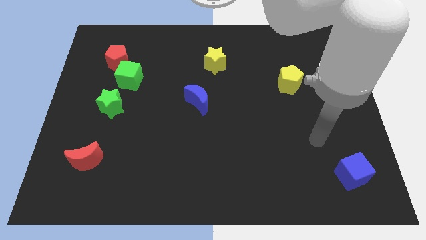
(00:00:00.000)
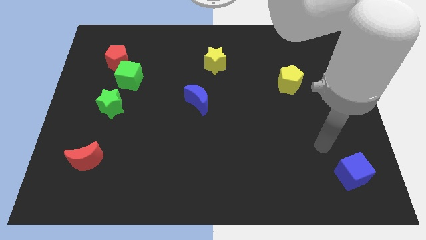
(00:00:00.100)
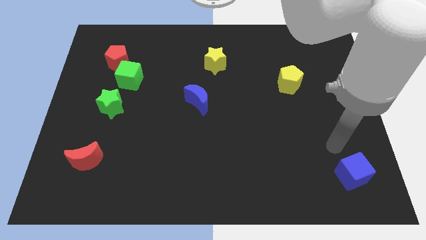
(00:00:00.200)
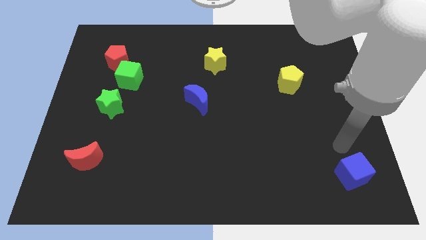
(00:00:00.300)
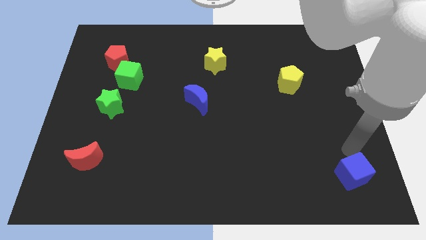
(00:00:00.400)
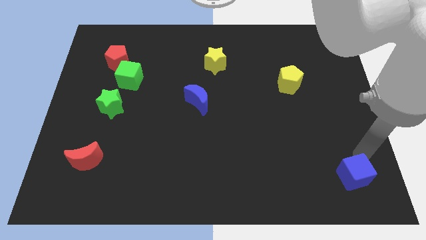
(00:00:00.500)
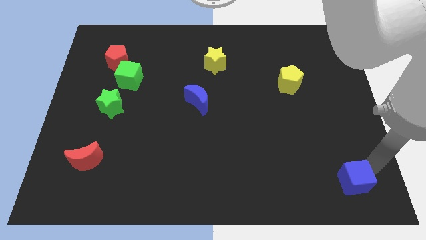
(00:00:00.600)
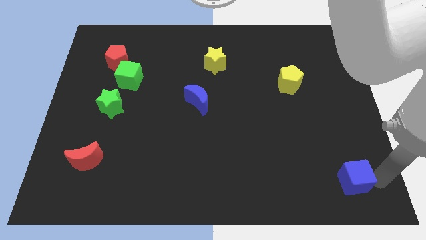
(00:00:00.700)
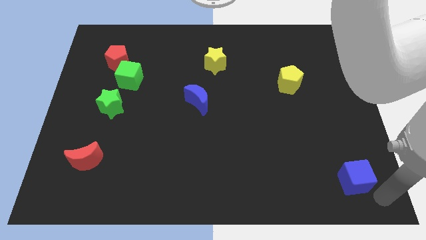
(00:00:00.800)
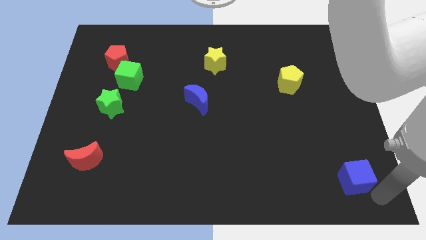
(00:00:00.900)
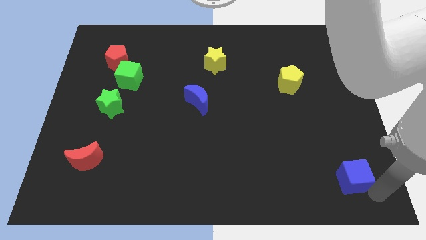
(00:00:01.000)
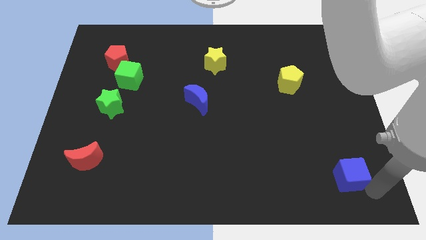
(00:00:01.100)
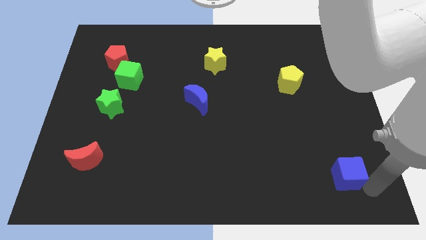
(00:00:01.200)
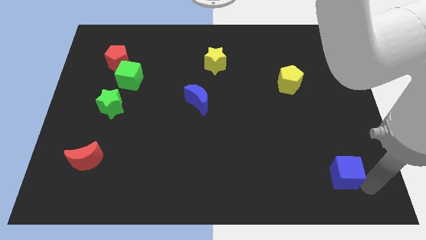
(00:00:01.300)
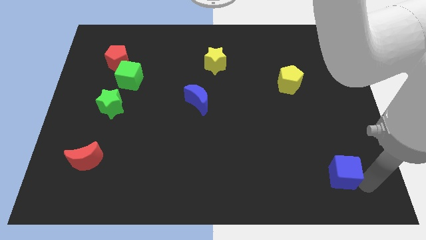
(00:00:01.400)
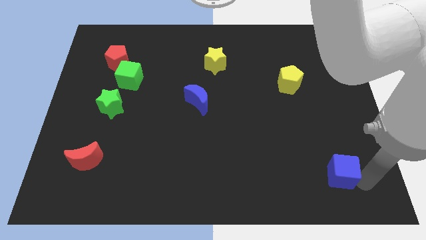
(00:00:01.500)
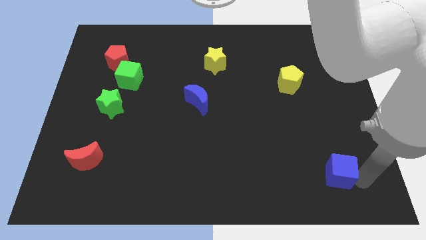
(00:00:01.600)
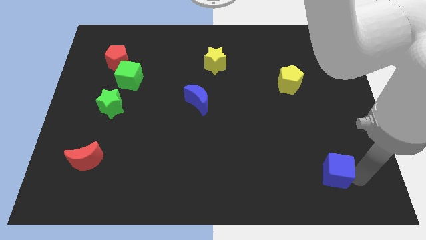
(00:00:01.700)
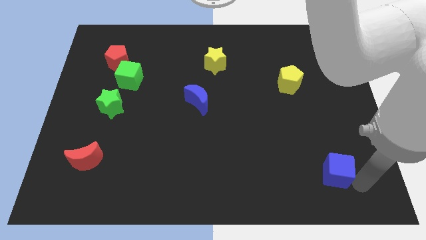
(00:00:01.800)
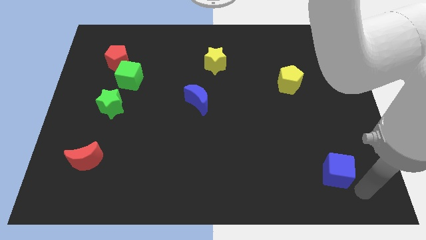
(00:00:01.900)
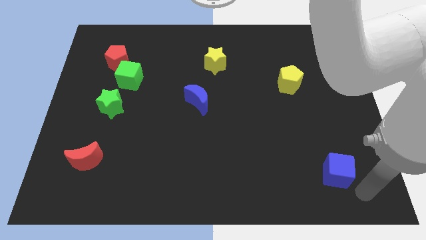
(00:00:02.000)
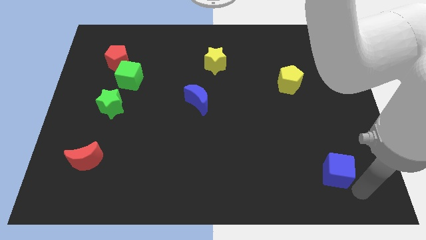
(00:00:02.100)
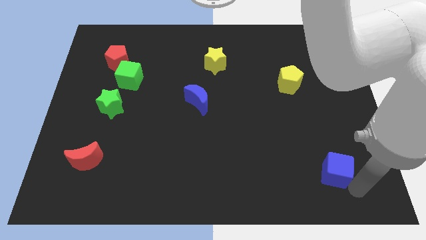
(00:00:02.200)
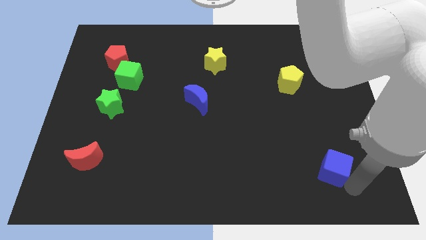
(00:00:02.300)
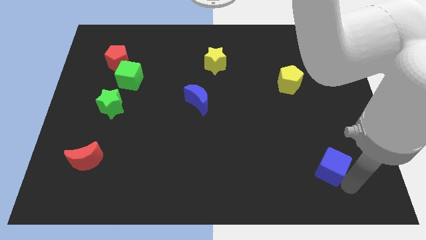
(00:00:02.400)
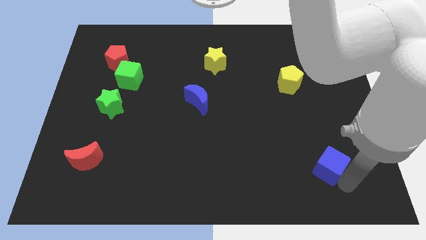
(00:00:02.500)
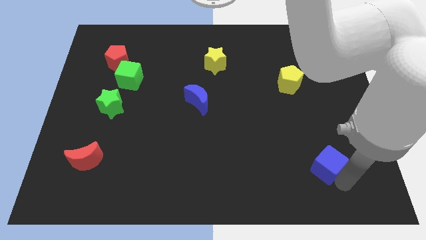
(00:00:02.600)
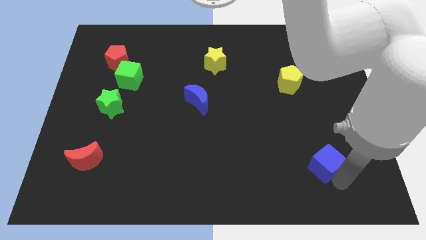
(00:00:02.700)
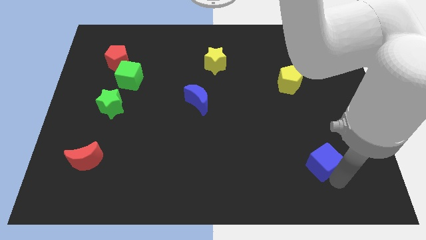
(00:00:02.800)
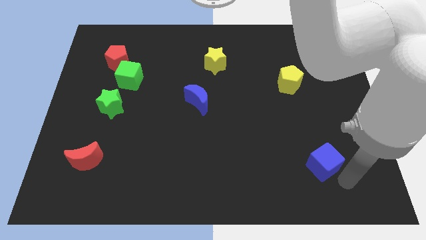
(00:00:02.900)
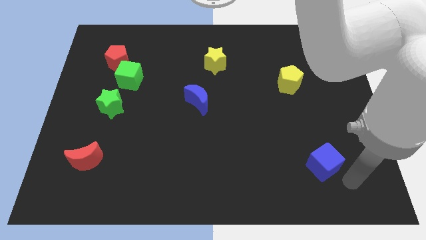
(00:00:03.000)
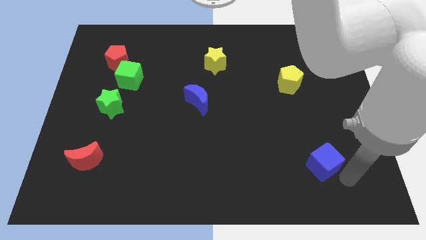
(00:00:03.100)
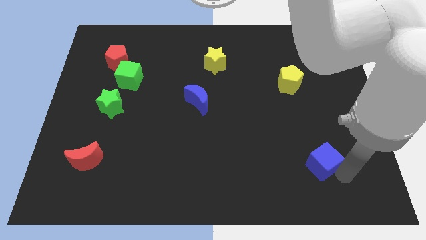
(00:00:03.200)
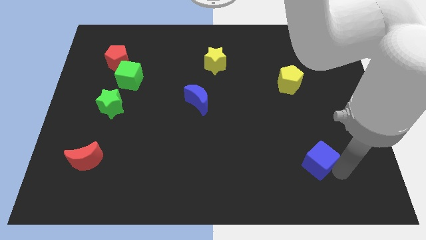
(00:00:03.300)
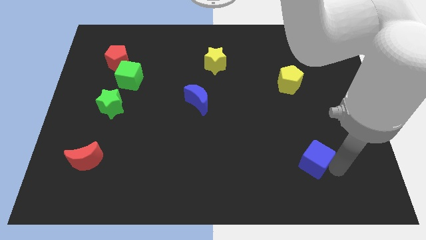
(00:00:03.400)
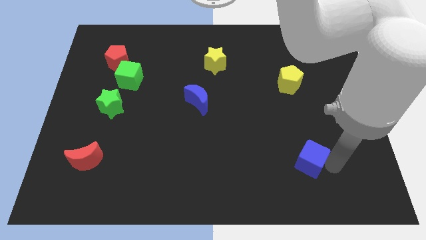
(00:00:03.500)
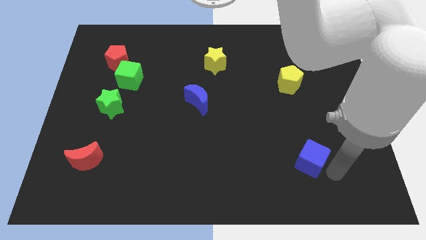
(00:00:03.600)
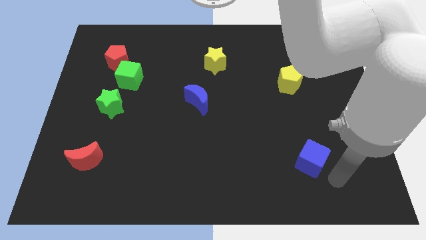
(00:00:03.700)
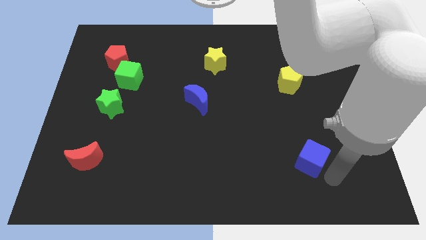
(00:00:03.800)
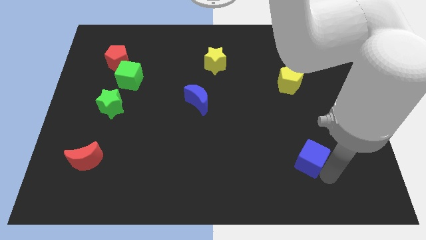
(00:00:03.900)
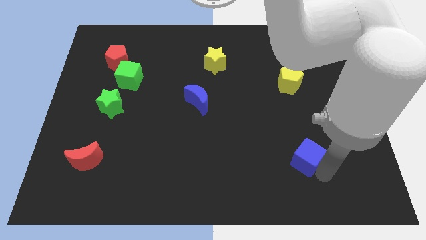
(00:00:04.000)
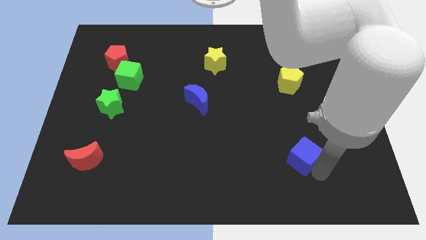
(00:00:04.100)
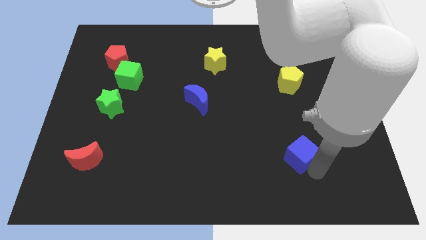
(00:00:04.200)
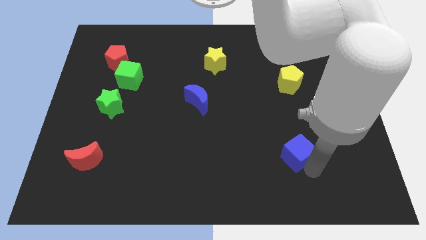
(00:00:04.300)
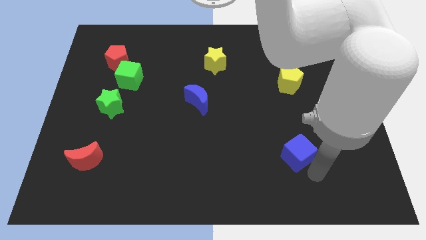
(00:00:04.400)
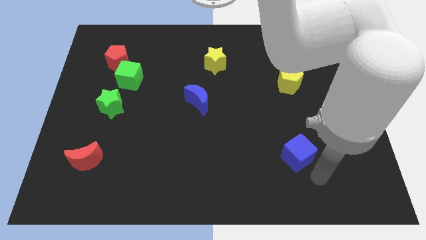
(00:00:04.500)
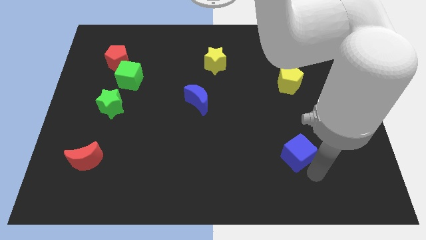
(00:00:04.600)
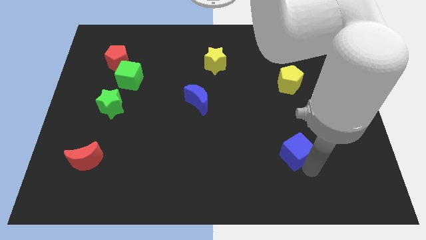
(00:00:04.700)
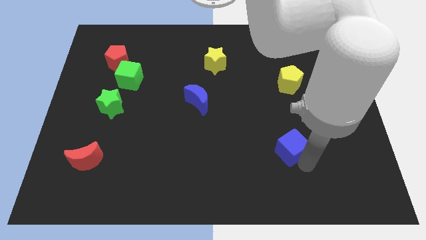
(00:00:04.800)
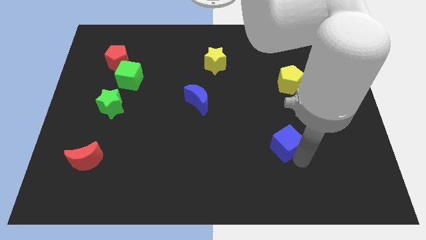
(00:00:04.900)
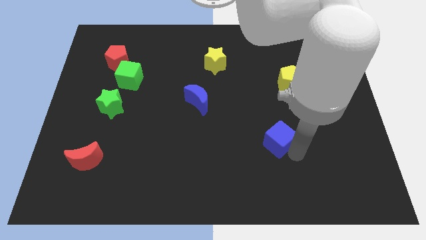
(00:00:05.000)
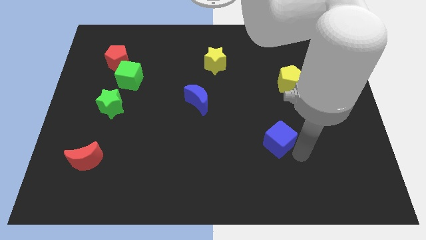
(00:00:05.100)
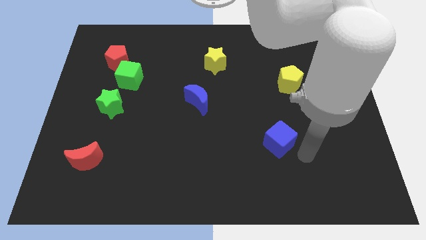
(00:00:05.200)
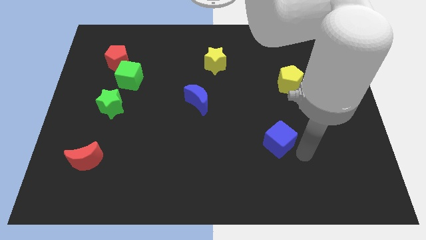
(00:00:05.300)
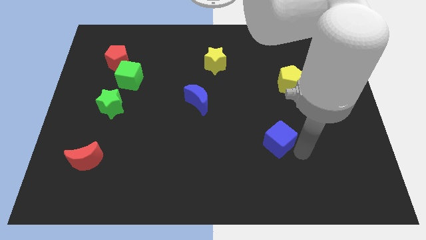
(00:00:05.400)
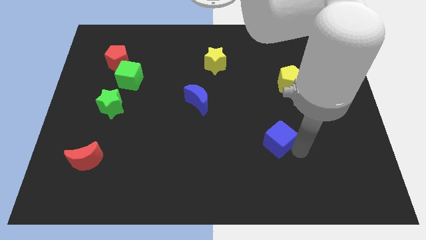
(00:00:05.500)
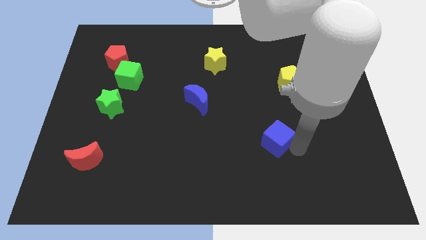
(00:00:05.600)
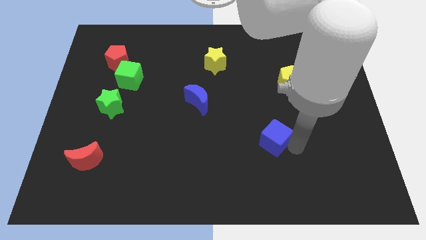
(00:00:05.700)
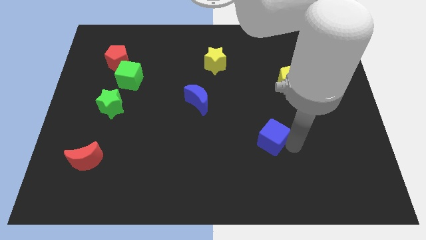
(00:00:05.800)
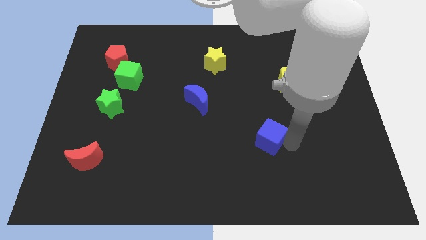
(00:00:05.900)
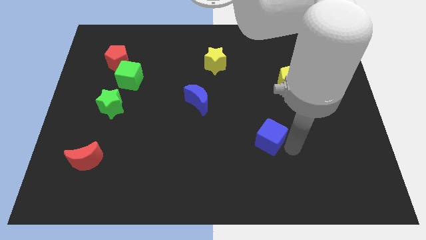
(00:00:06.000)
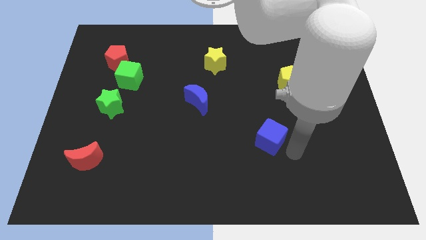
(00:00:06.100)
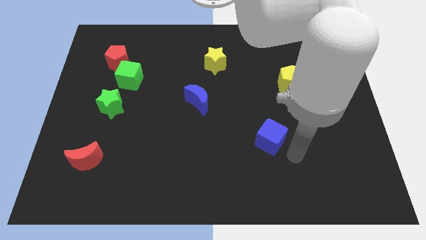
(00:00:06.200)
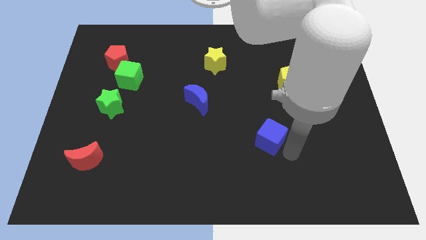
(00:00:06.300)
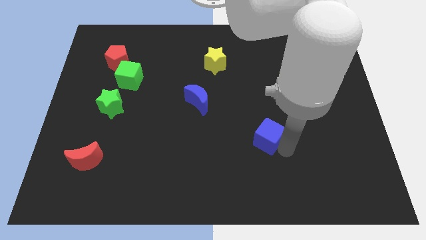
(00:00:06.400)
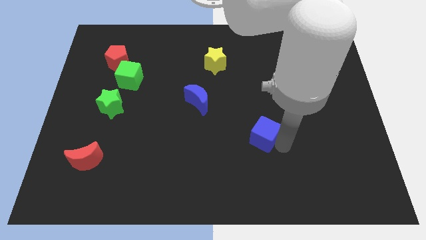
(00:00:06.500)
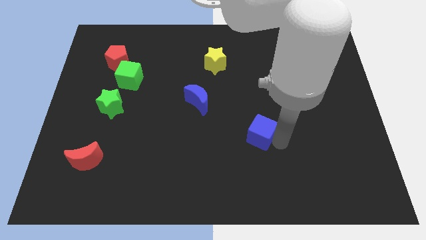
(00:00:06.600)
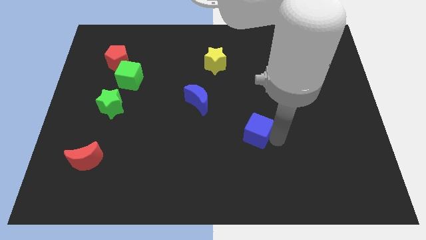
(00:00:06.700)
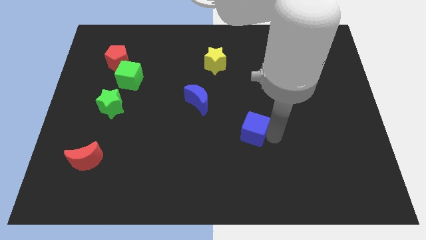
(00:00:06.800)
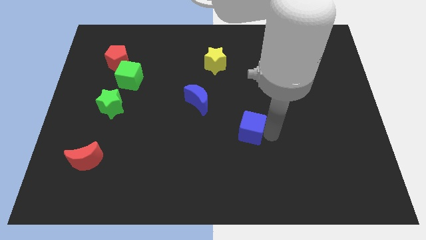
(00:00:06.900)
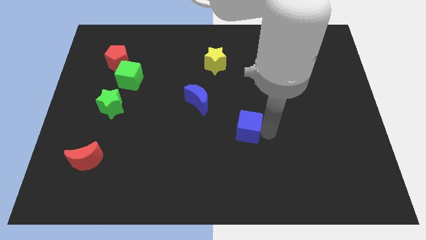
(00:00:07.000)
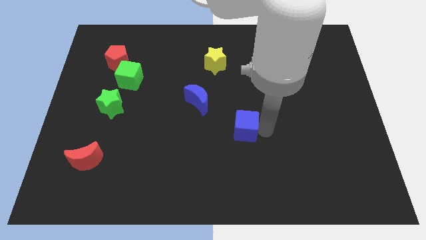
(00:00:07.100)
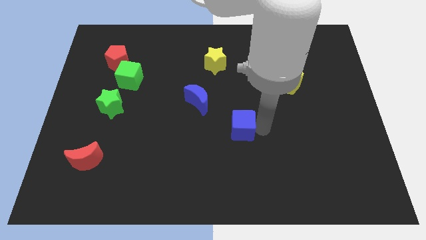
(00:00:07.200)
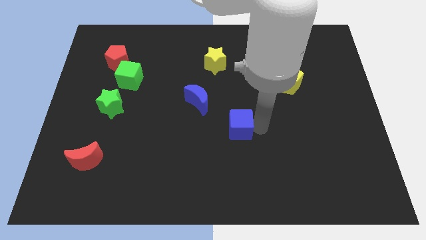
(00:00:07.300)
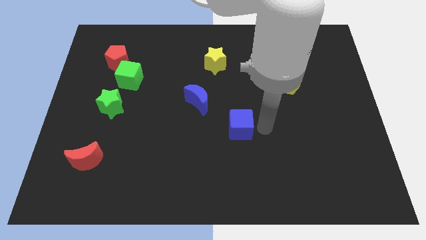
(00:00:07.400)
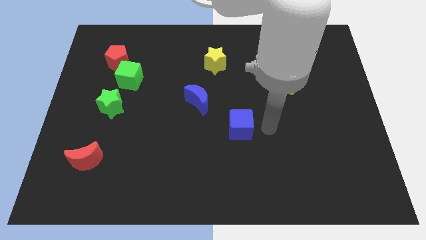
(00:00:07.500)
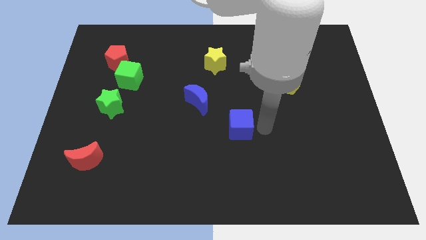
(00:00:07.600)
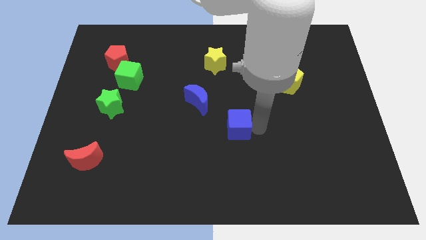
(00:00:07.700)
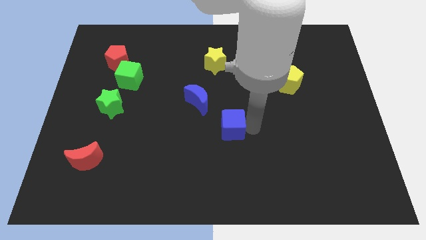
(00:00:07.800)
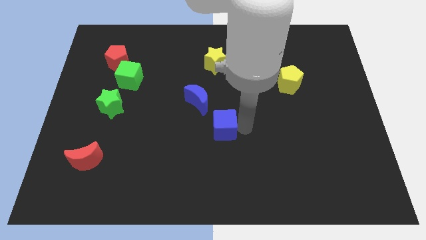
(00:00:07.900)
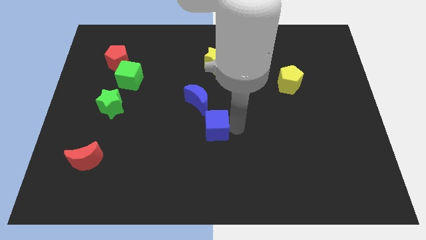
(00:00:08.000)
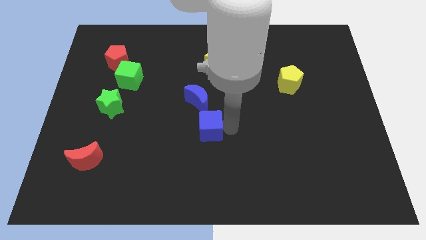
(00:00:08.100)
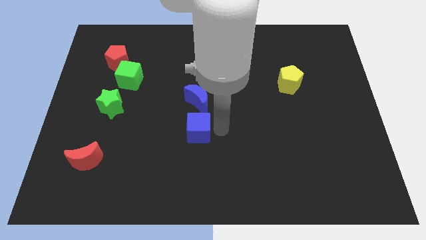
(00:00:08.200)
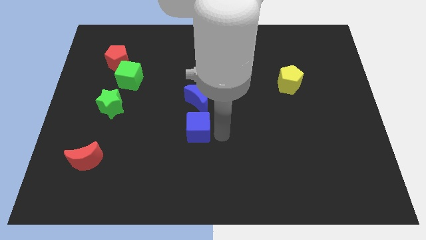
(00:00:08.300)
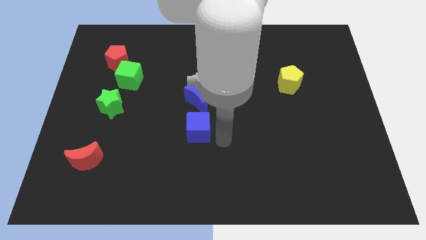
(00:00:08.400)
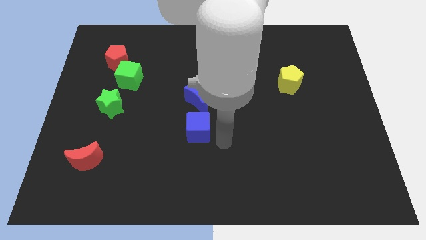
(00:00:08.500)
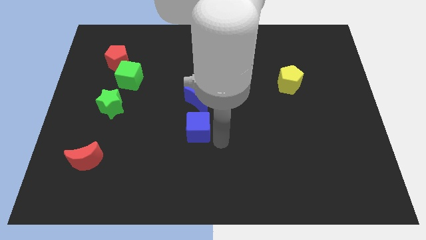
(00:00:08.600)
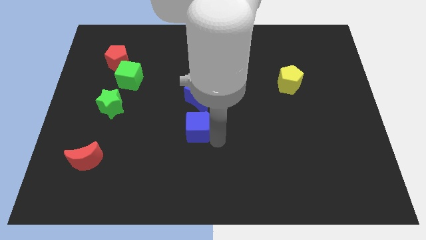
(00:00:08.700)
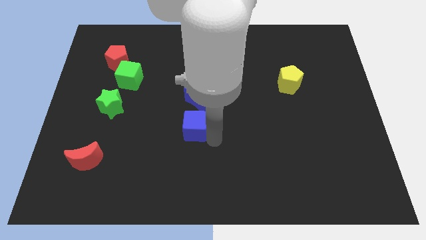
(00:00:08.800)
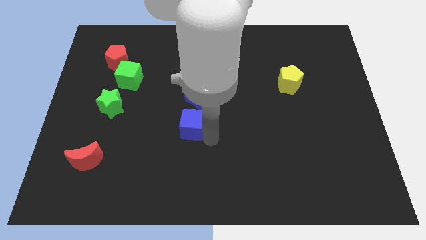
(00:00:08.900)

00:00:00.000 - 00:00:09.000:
put the blue cube to the bottom left side of the blue moon
